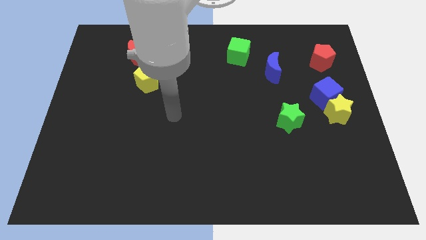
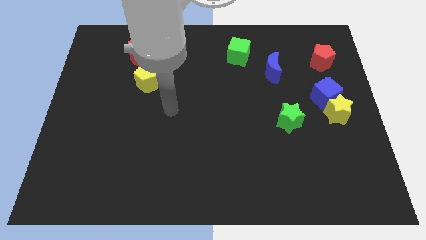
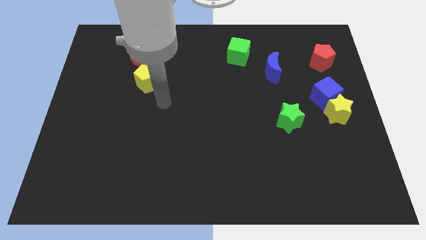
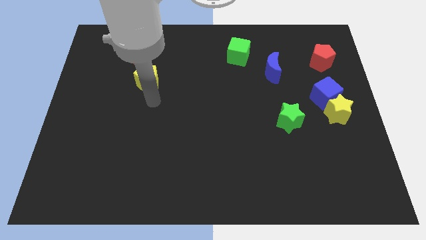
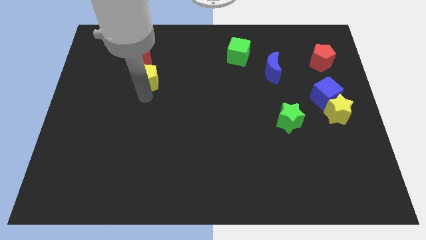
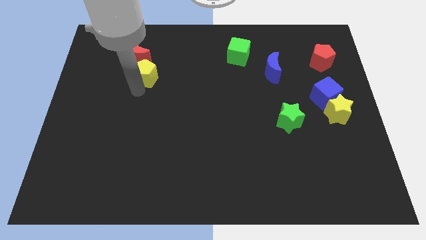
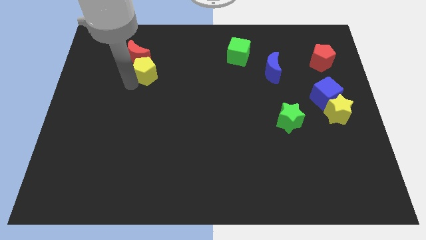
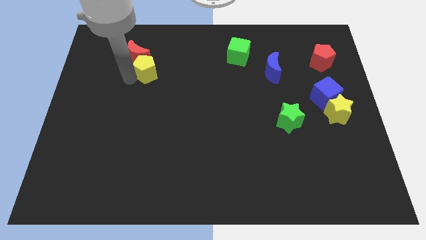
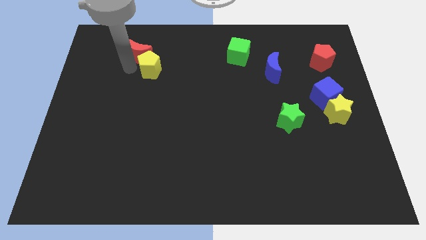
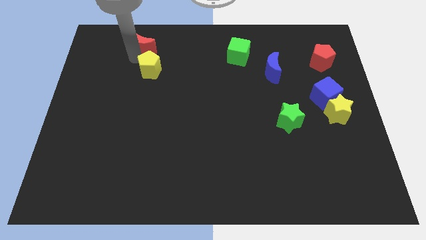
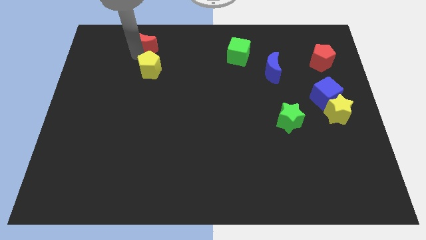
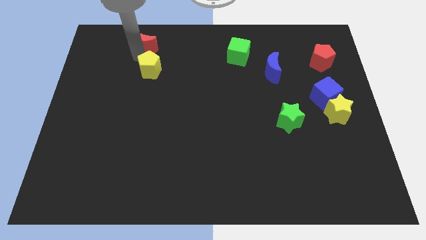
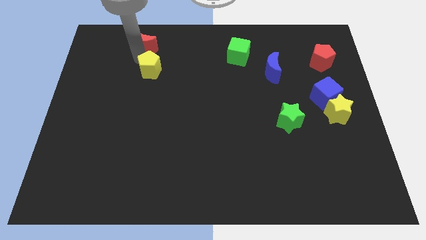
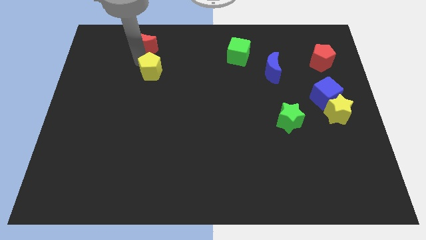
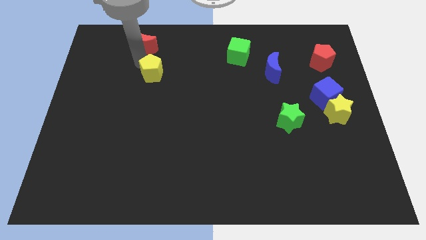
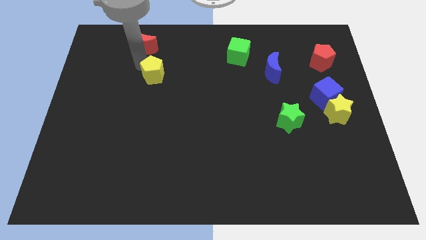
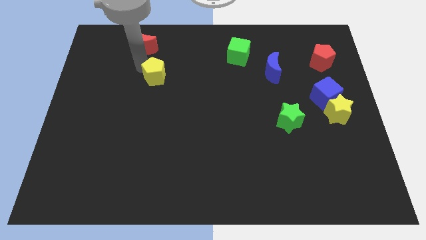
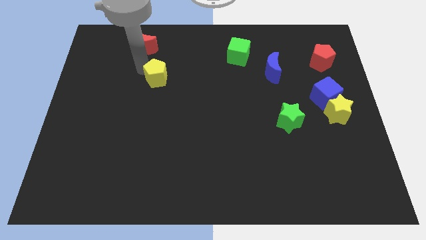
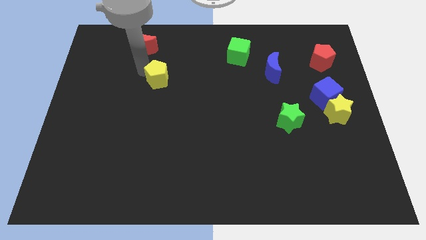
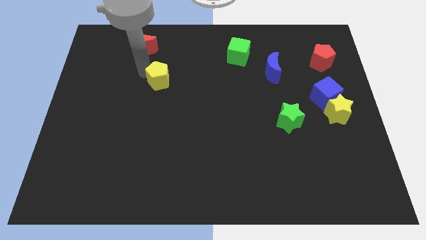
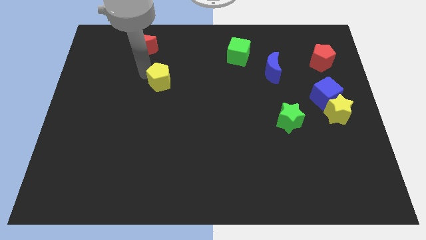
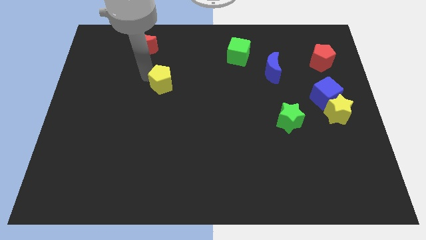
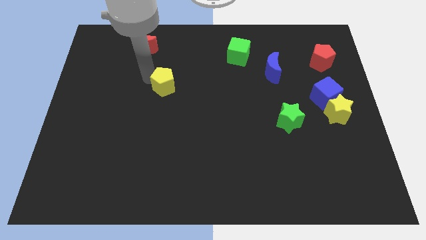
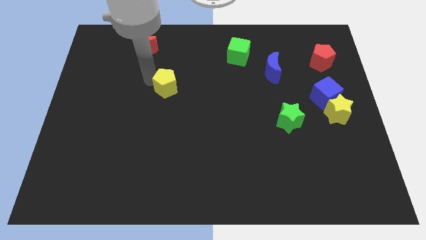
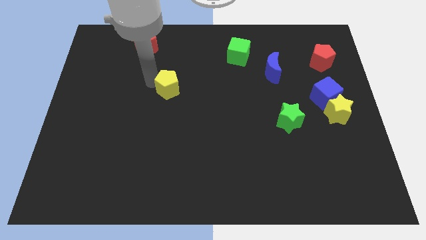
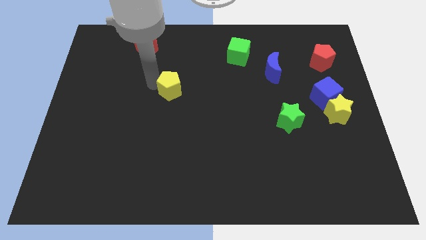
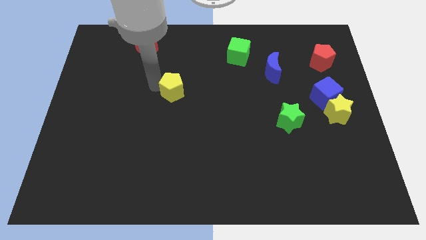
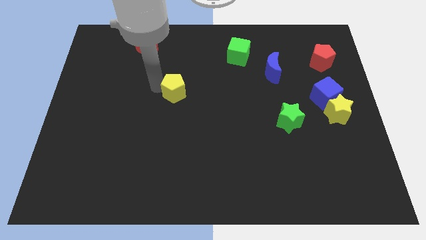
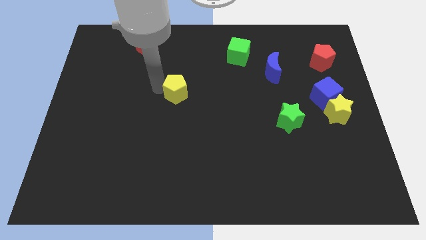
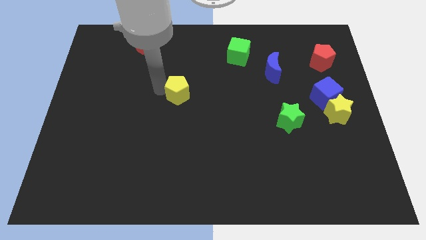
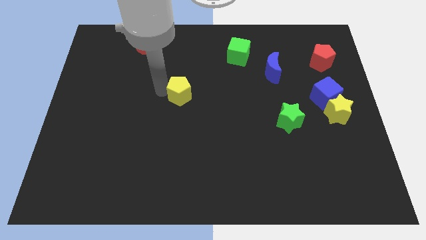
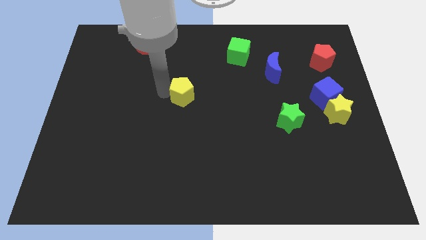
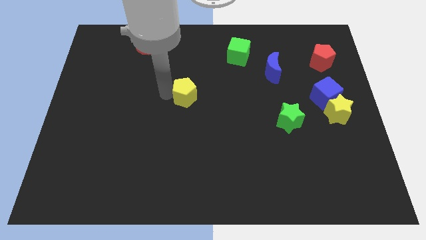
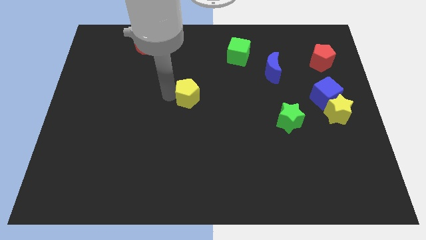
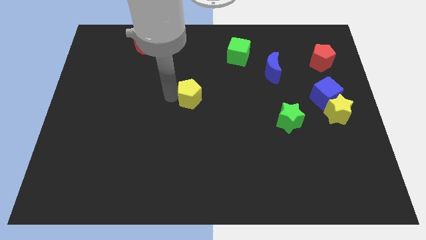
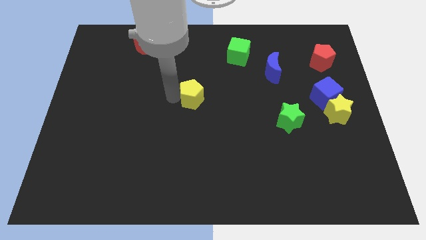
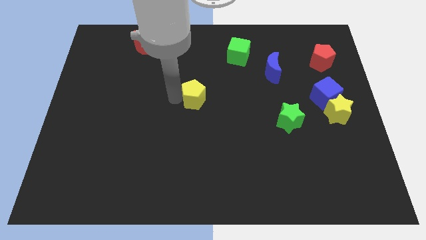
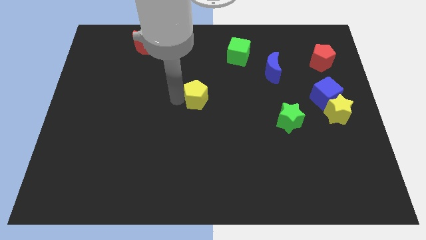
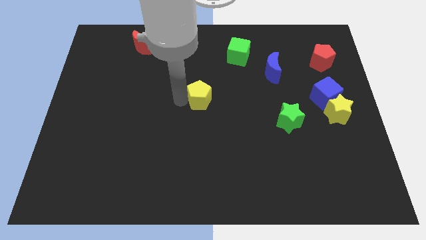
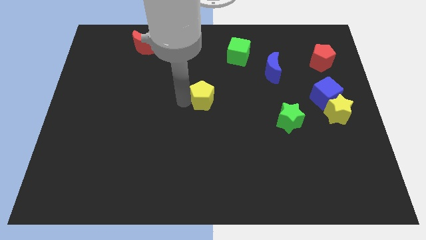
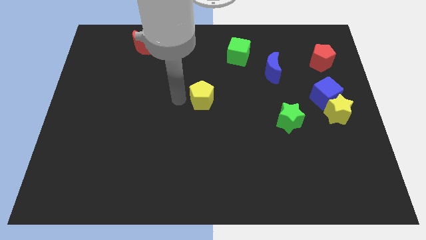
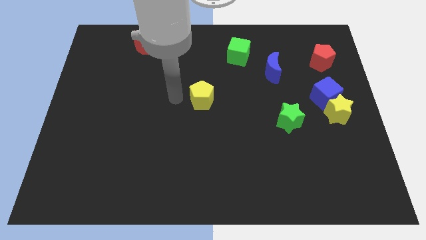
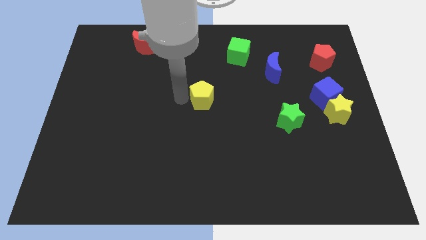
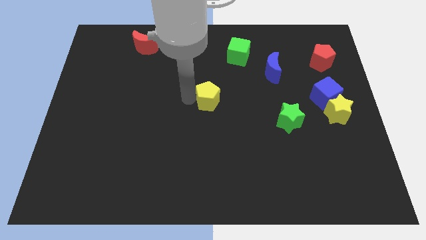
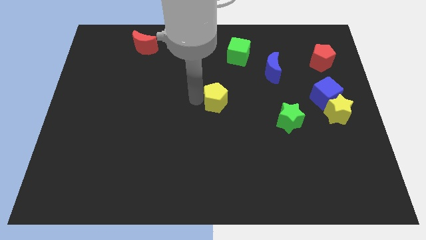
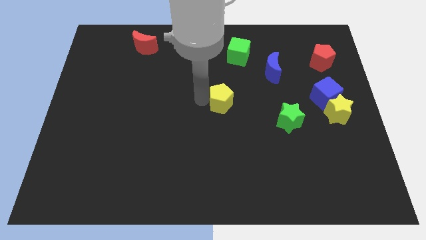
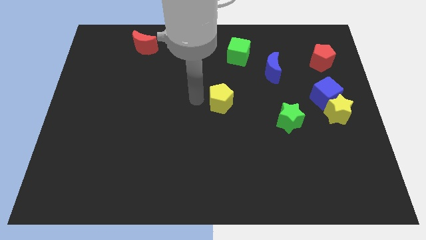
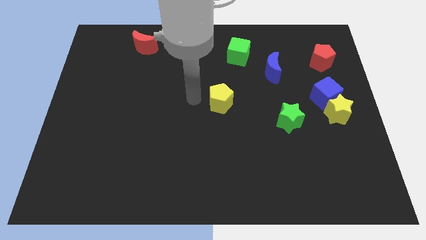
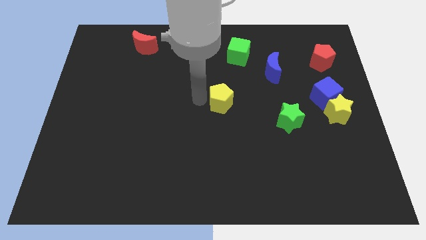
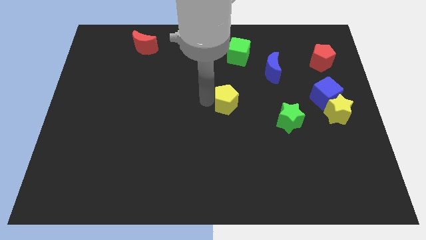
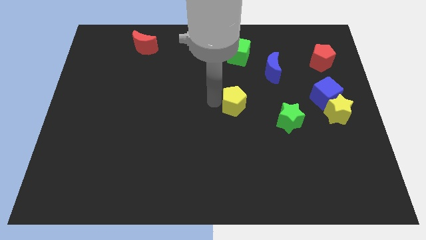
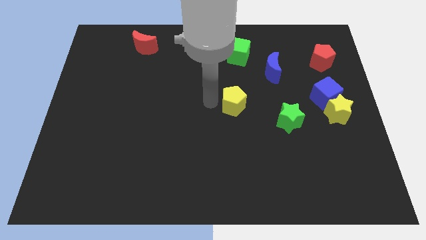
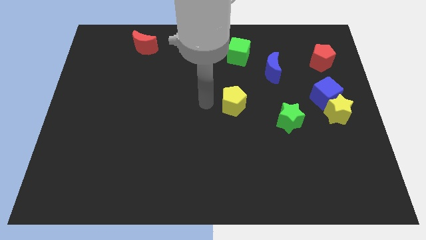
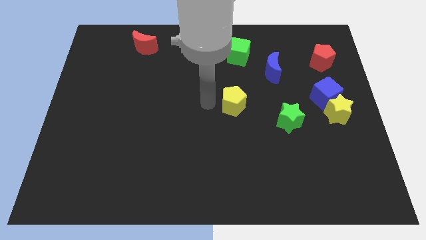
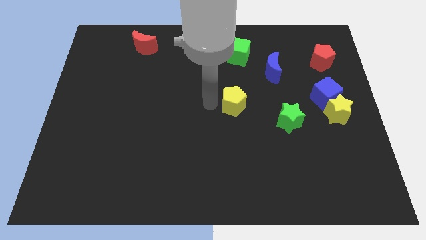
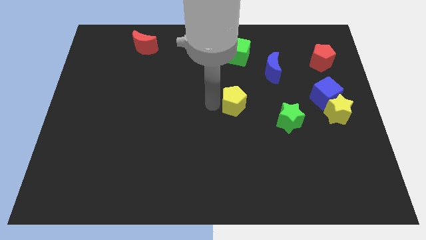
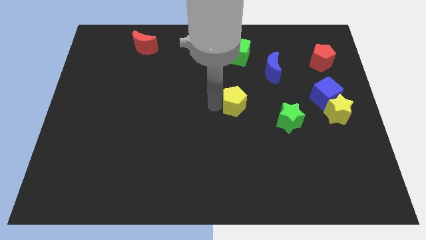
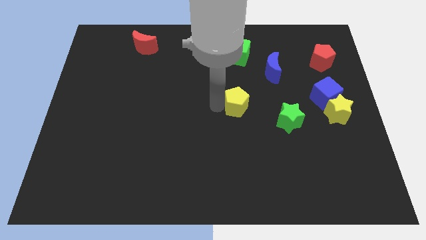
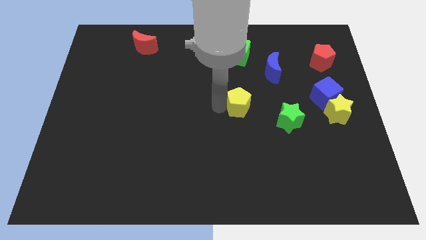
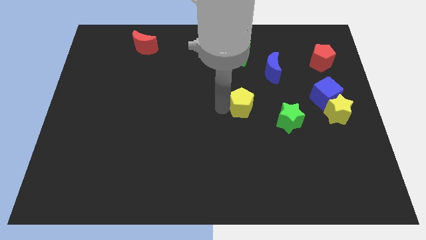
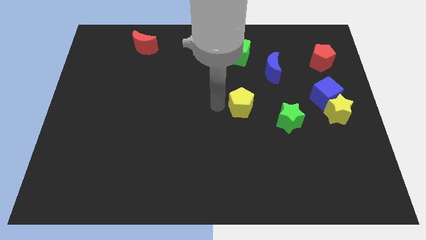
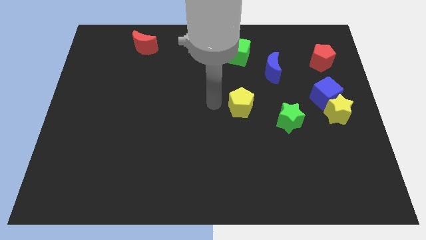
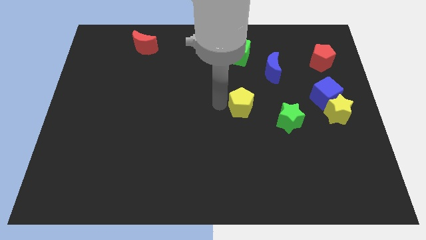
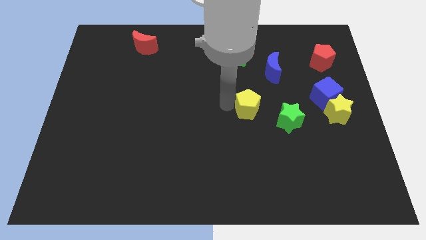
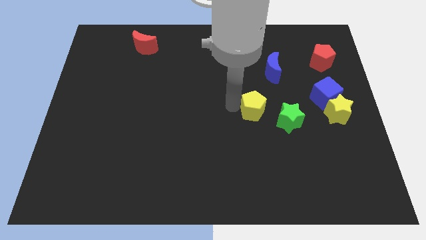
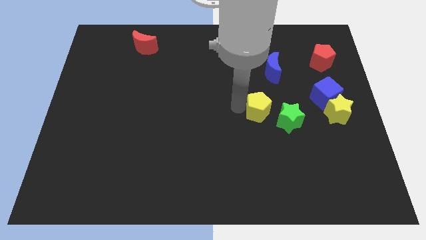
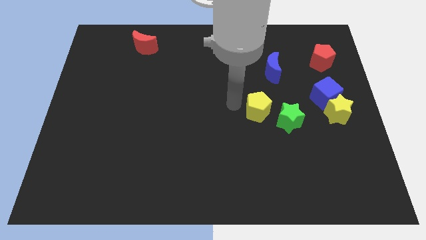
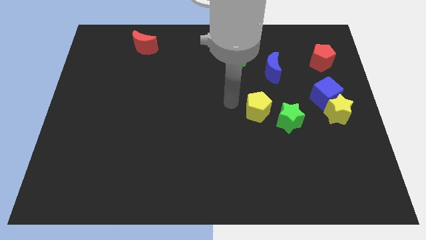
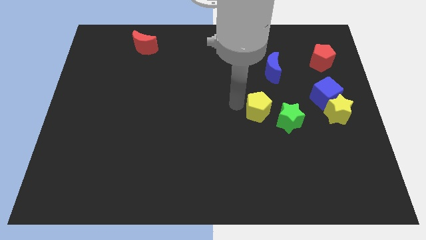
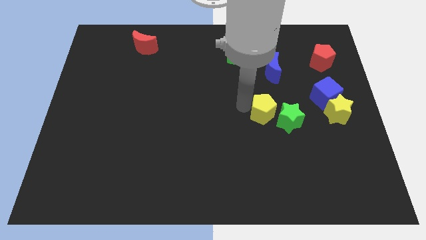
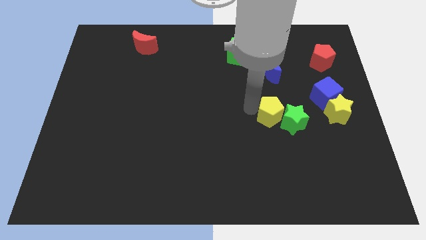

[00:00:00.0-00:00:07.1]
put the yellow pentagon to the green star

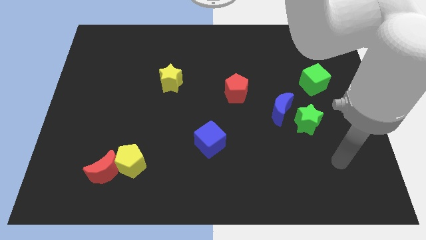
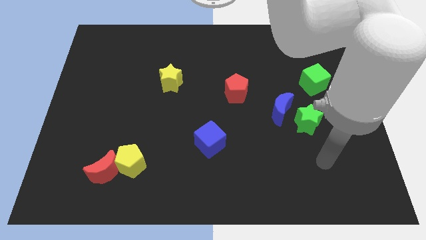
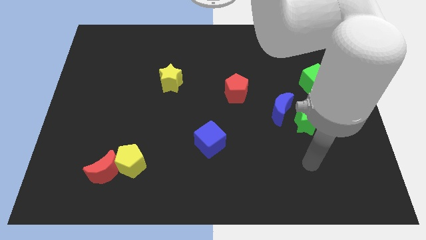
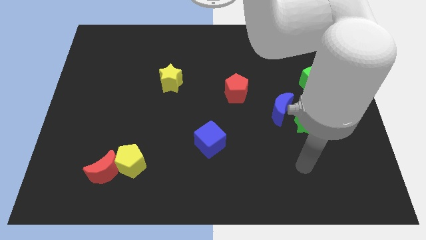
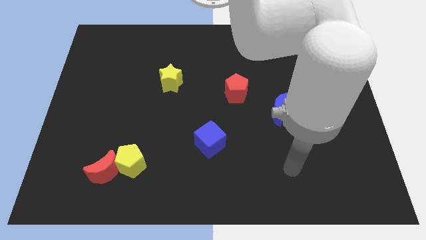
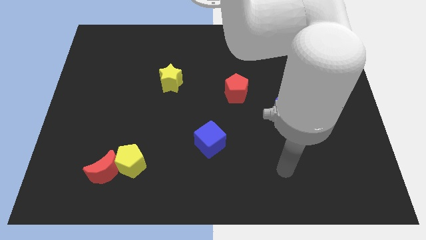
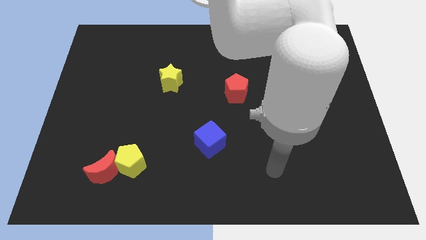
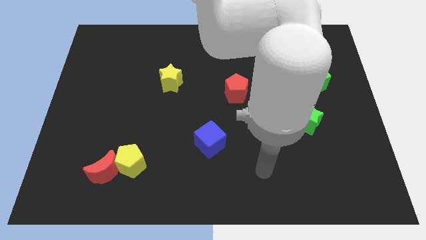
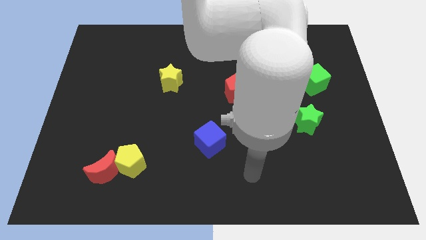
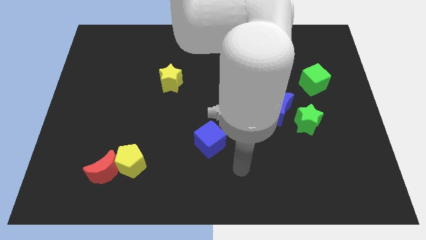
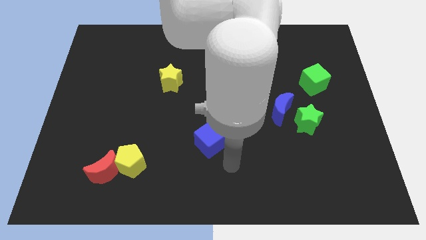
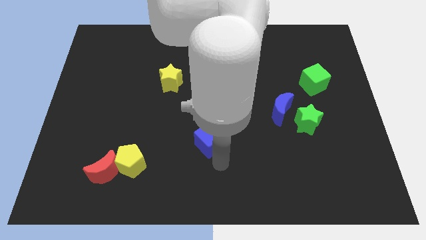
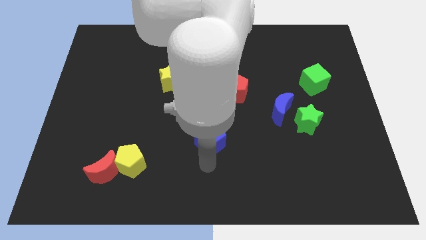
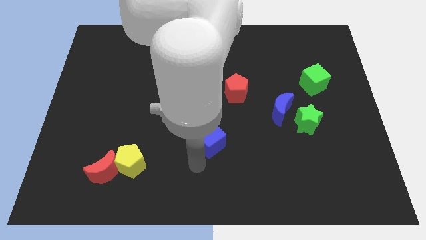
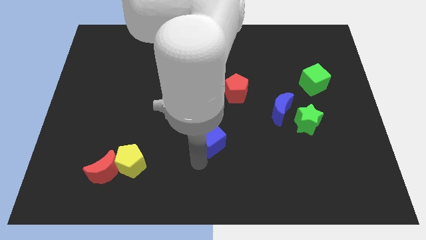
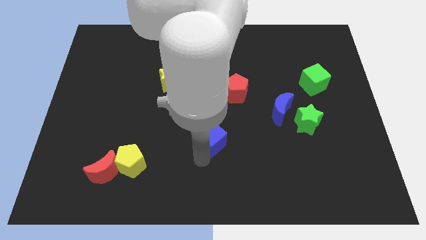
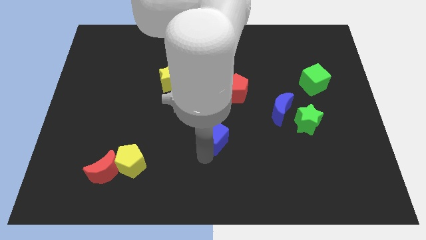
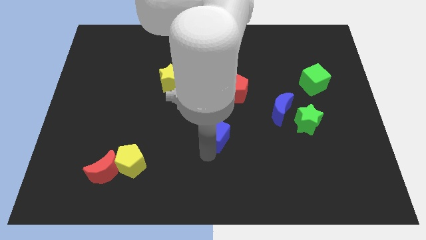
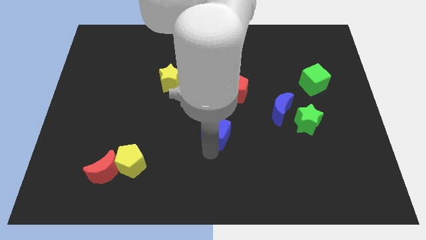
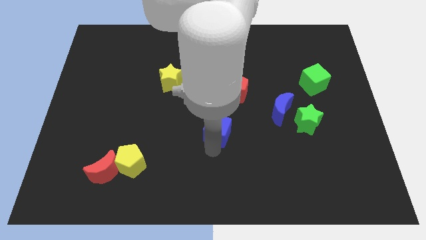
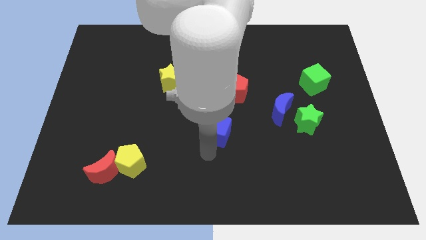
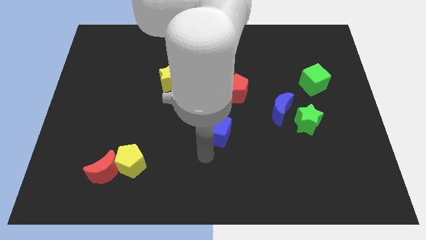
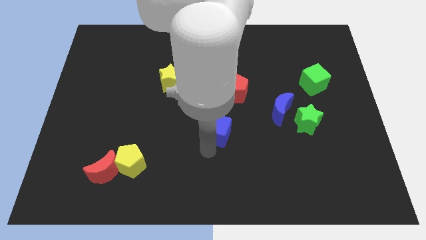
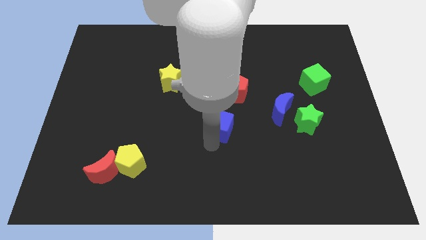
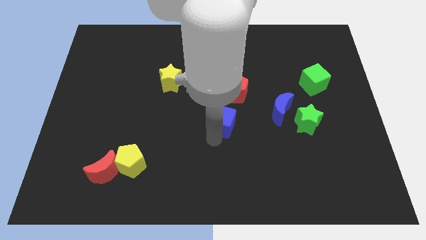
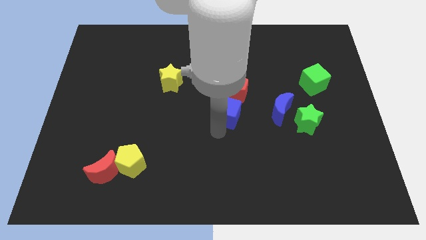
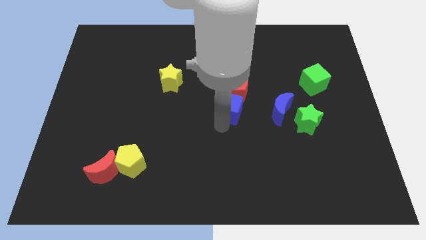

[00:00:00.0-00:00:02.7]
push the blue cube next to the red pentagon
